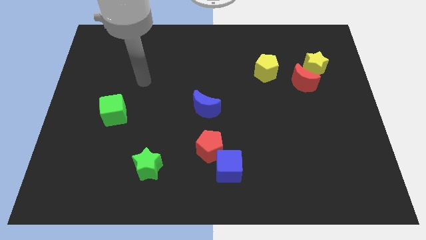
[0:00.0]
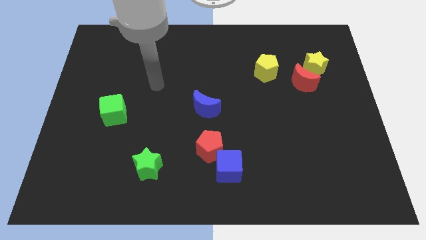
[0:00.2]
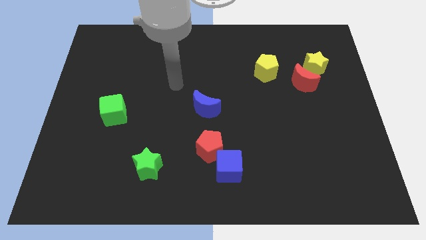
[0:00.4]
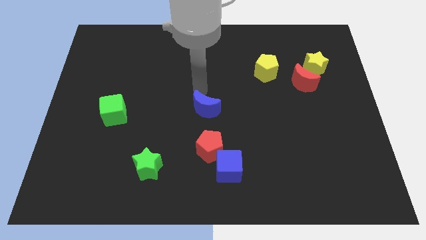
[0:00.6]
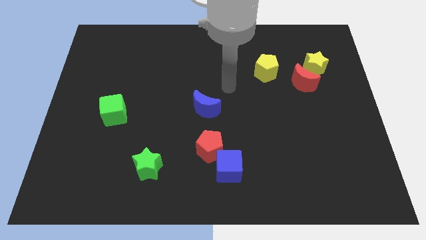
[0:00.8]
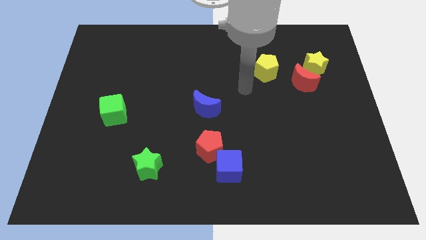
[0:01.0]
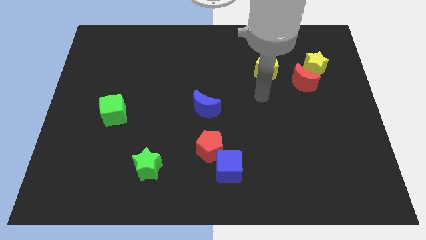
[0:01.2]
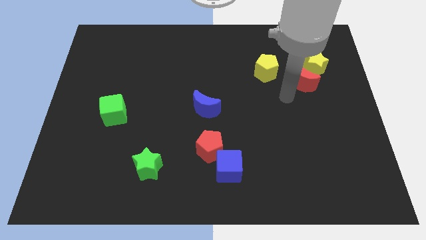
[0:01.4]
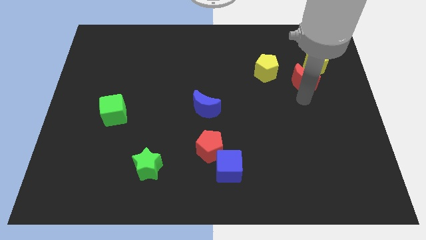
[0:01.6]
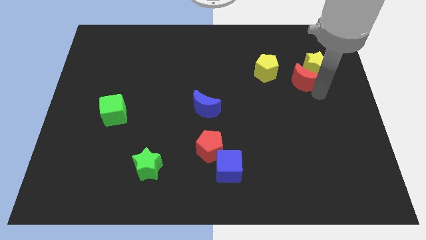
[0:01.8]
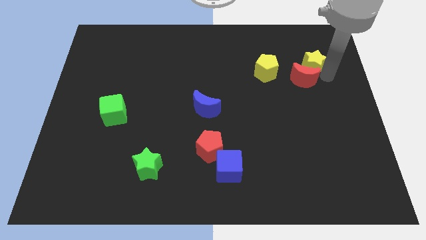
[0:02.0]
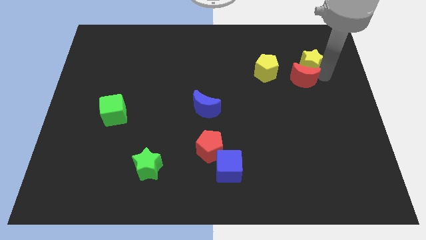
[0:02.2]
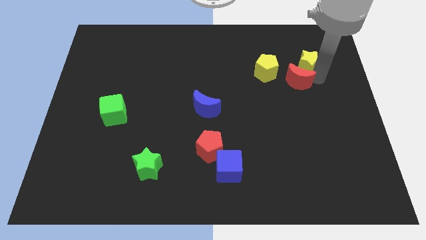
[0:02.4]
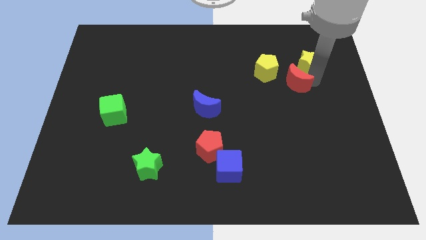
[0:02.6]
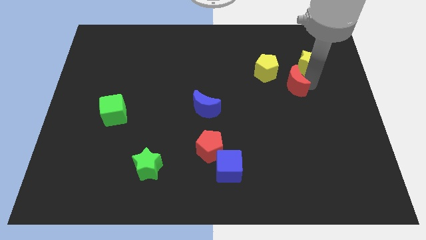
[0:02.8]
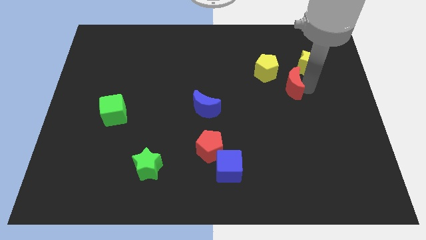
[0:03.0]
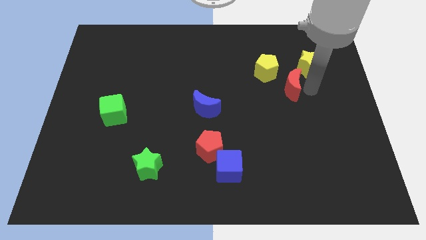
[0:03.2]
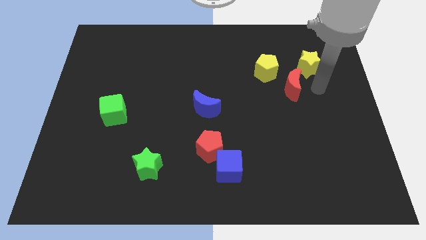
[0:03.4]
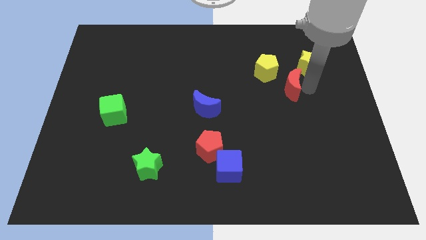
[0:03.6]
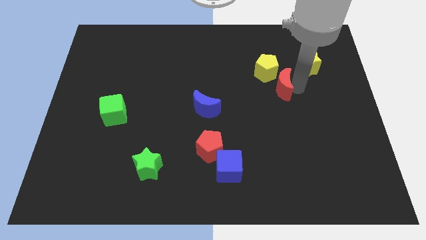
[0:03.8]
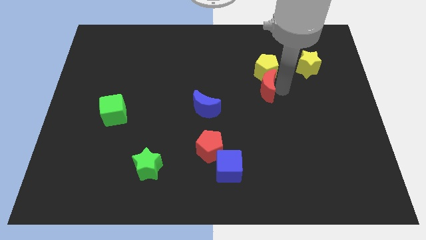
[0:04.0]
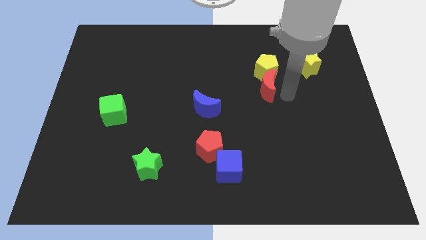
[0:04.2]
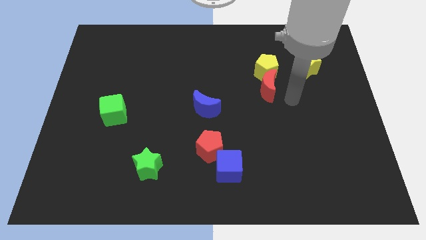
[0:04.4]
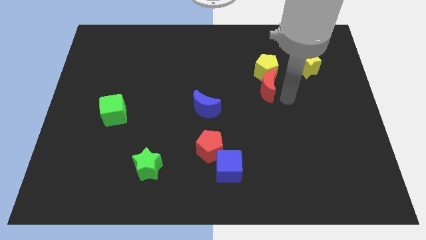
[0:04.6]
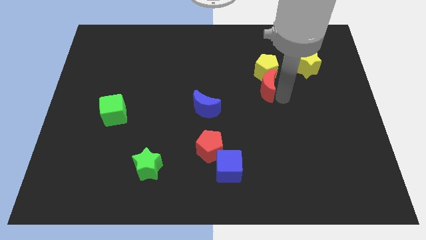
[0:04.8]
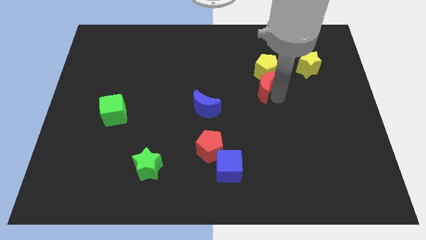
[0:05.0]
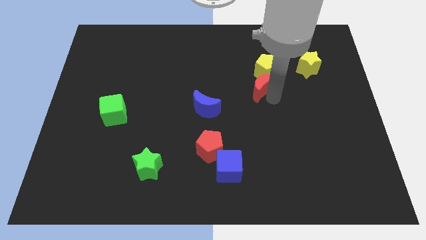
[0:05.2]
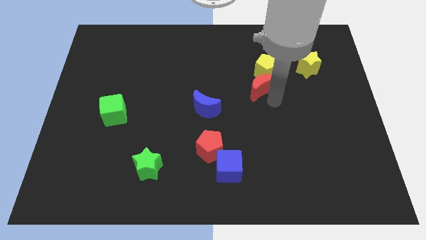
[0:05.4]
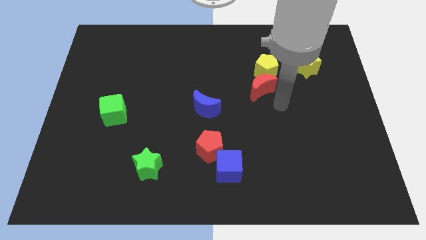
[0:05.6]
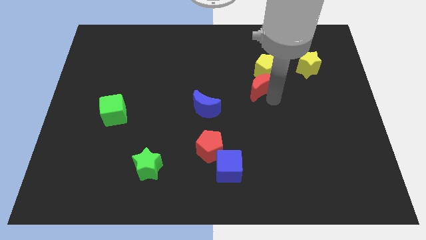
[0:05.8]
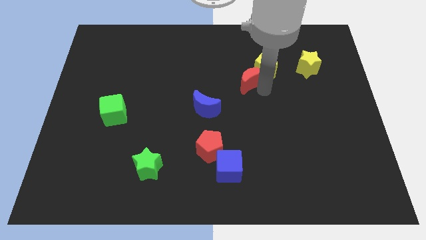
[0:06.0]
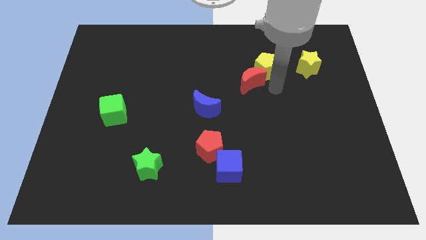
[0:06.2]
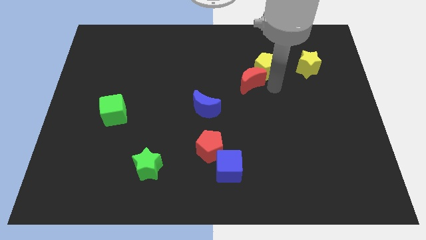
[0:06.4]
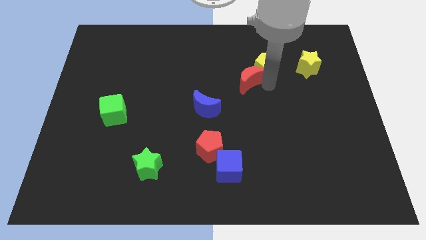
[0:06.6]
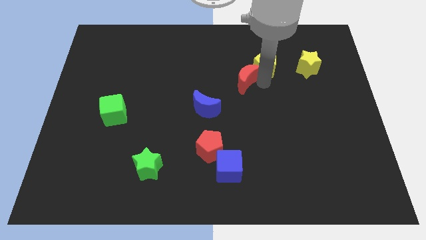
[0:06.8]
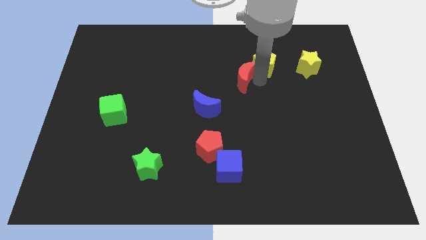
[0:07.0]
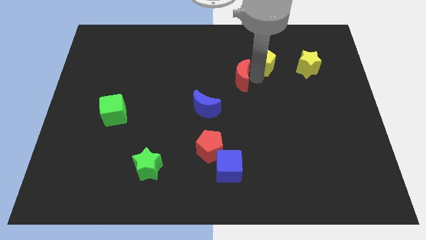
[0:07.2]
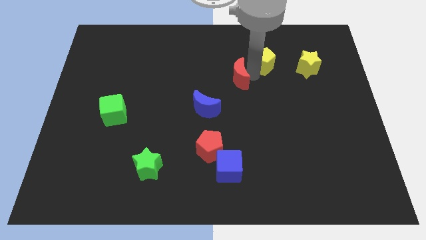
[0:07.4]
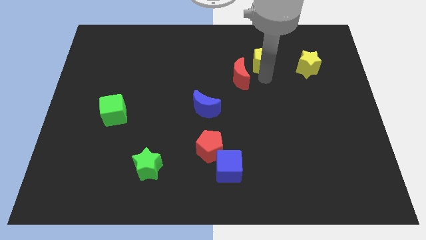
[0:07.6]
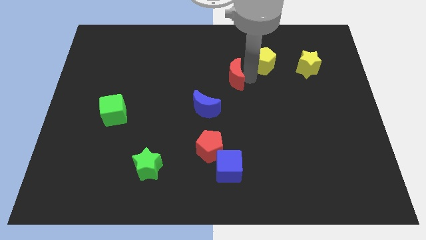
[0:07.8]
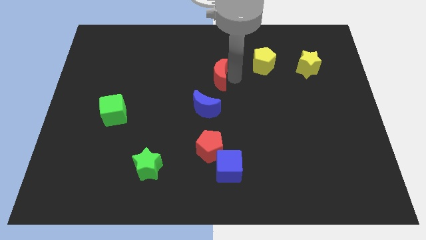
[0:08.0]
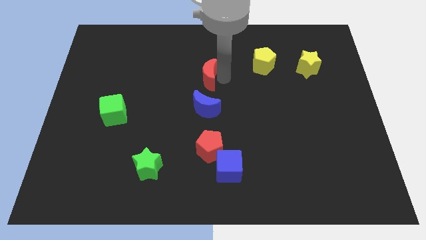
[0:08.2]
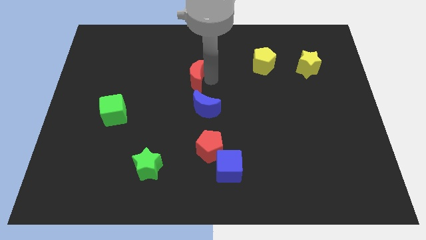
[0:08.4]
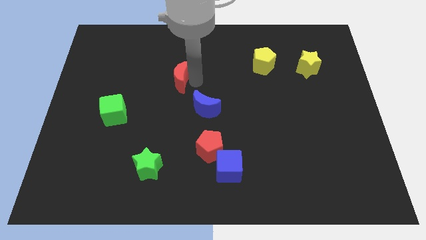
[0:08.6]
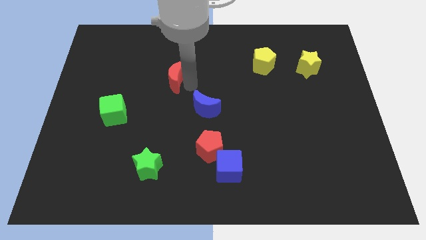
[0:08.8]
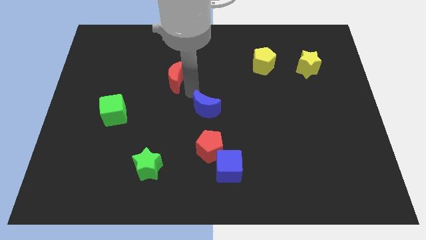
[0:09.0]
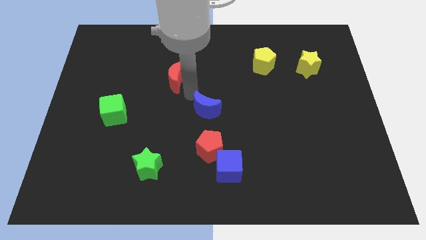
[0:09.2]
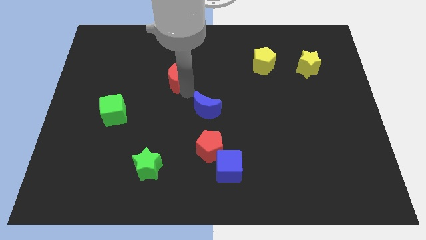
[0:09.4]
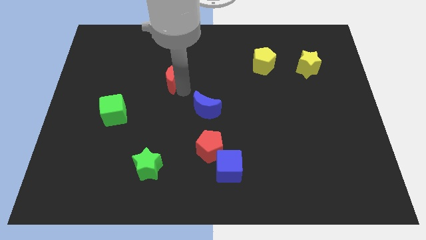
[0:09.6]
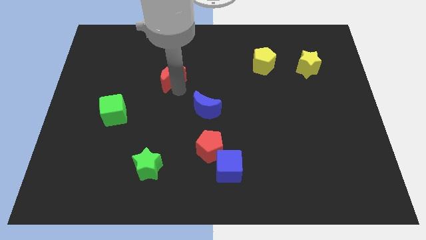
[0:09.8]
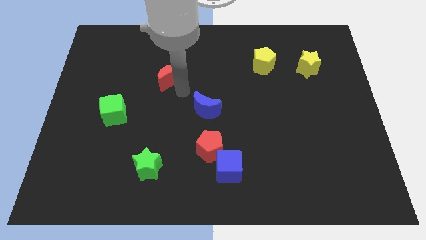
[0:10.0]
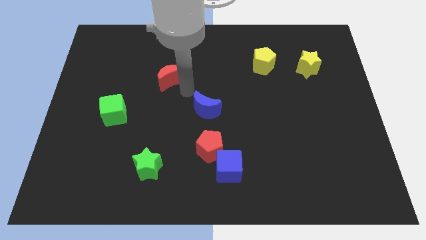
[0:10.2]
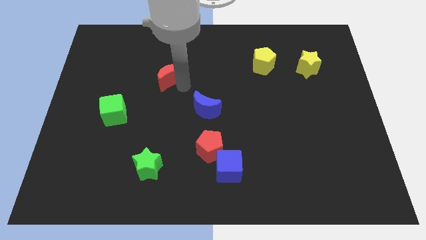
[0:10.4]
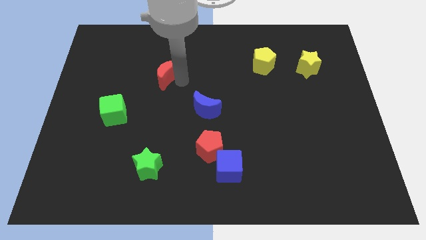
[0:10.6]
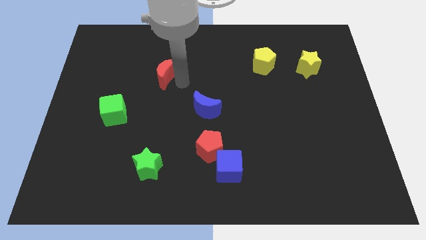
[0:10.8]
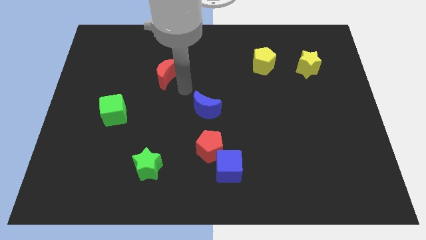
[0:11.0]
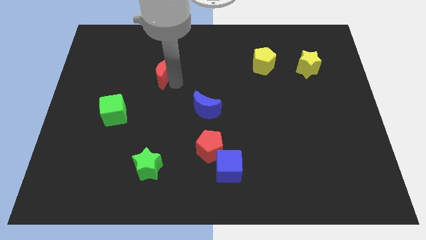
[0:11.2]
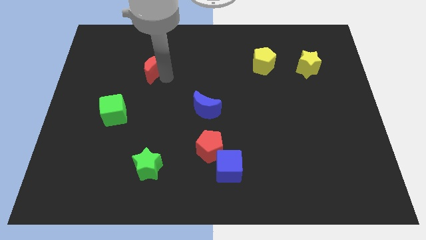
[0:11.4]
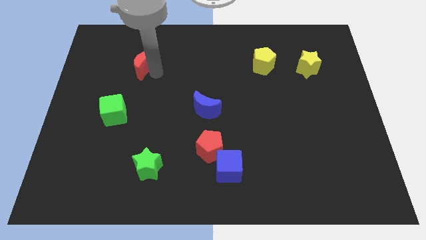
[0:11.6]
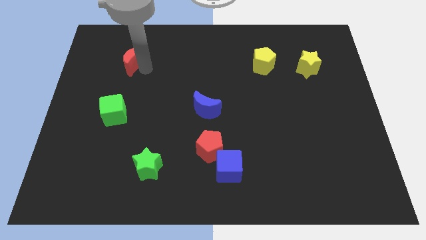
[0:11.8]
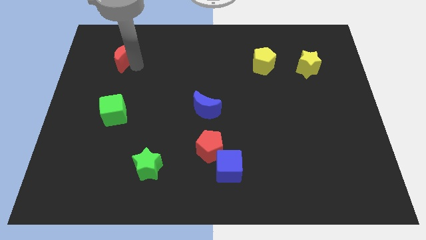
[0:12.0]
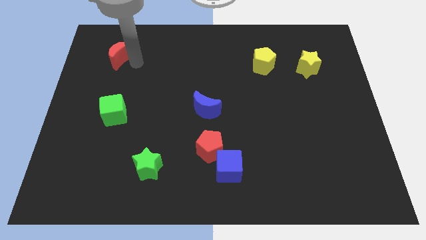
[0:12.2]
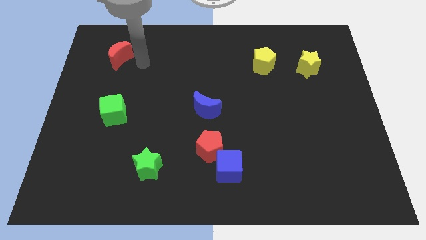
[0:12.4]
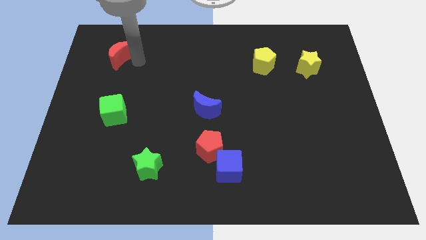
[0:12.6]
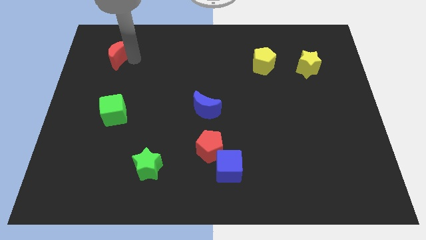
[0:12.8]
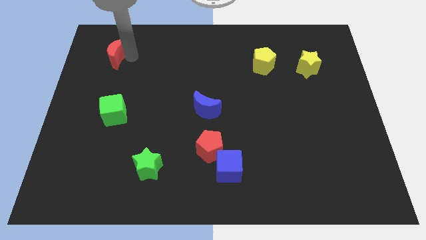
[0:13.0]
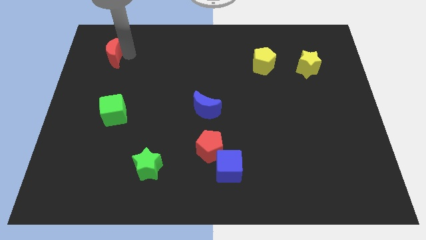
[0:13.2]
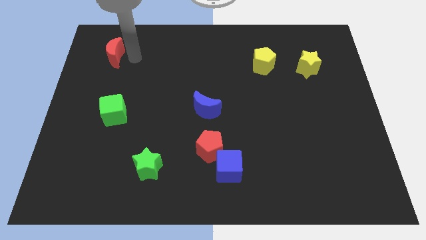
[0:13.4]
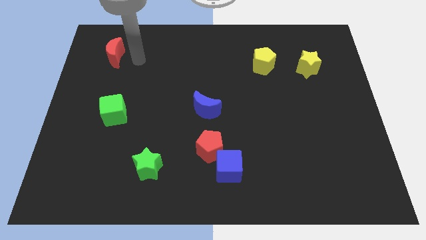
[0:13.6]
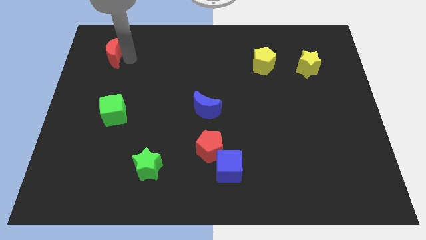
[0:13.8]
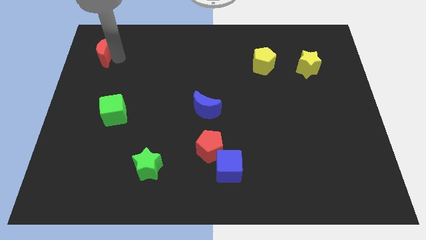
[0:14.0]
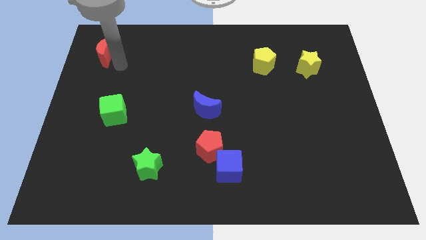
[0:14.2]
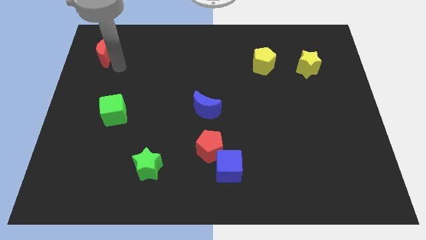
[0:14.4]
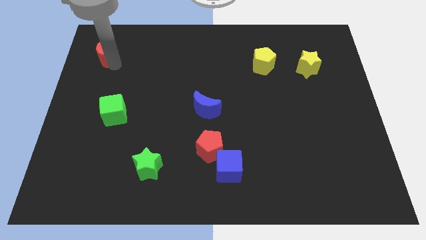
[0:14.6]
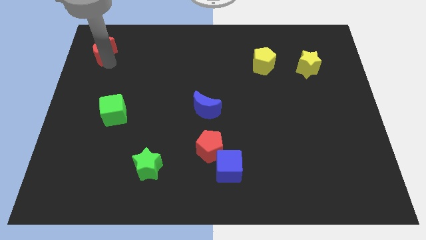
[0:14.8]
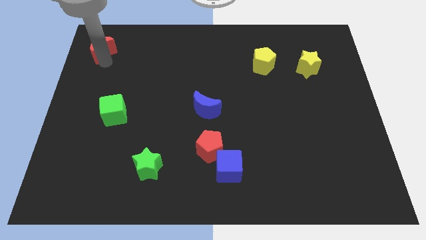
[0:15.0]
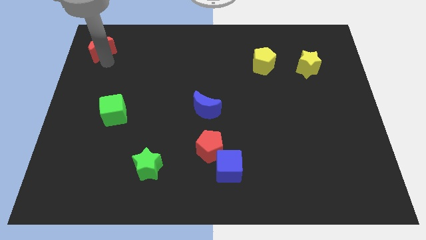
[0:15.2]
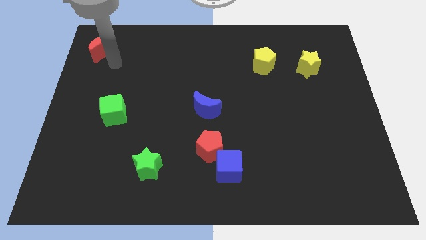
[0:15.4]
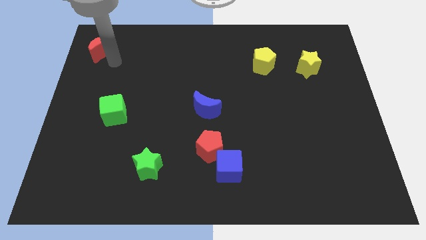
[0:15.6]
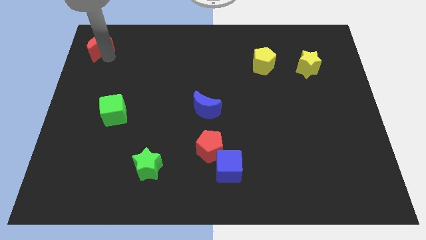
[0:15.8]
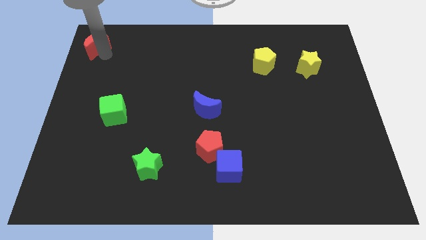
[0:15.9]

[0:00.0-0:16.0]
put the red moon to the top left corner
